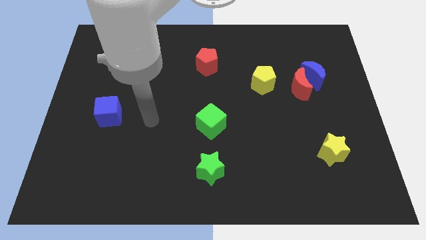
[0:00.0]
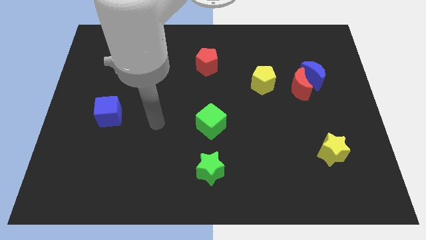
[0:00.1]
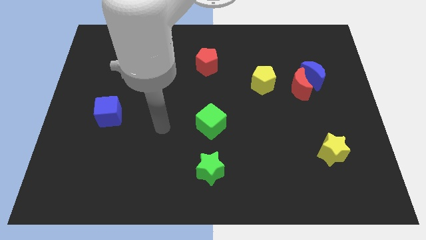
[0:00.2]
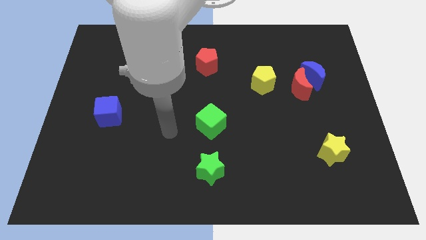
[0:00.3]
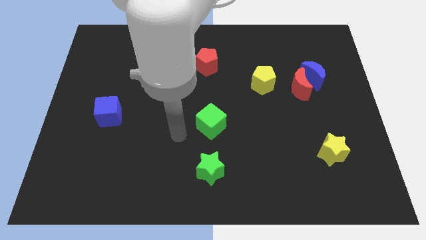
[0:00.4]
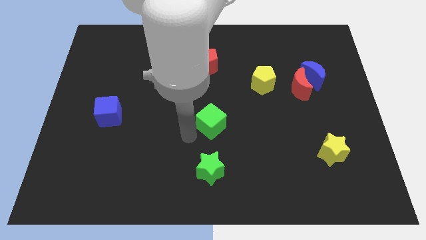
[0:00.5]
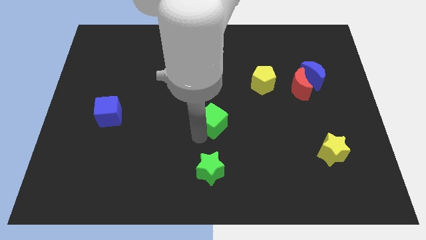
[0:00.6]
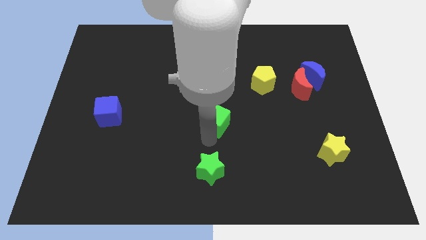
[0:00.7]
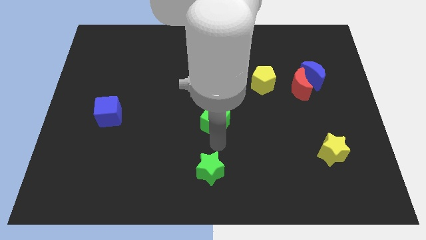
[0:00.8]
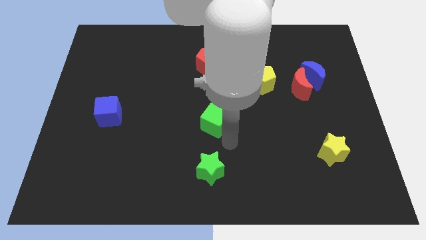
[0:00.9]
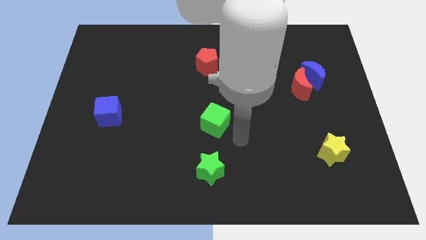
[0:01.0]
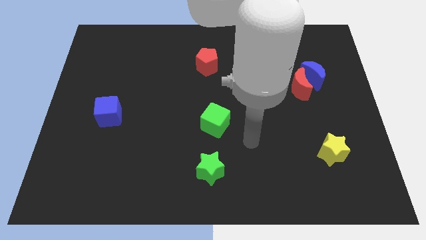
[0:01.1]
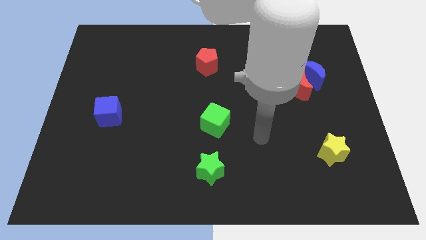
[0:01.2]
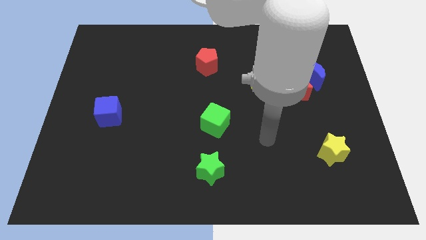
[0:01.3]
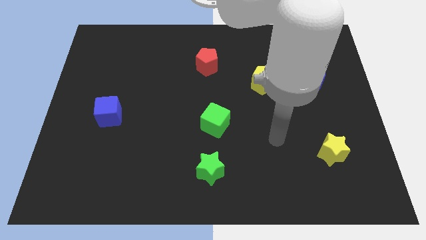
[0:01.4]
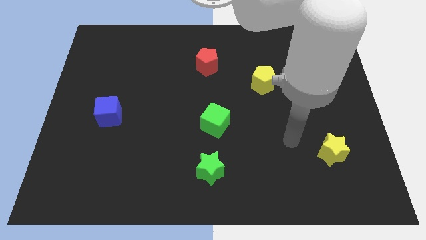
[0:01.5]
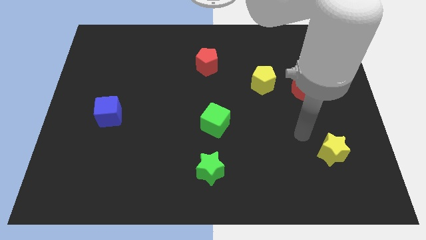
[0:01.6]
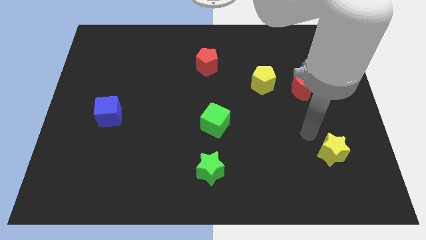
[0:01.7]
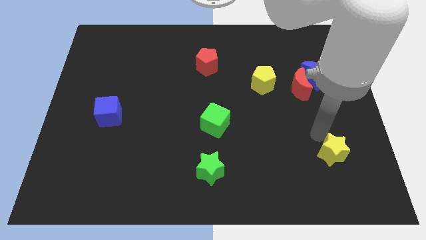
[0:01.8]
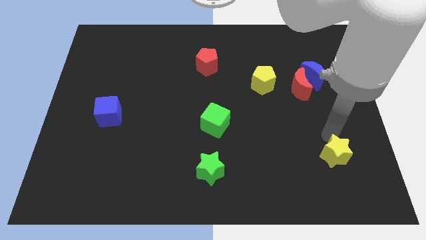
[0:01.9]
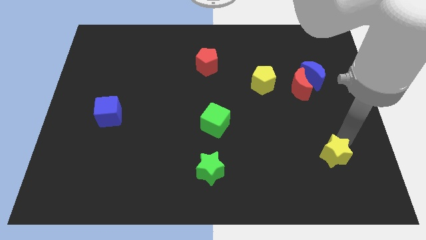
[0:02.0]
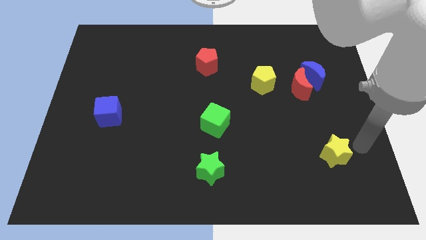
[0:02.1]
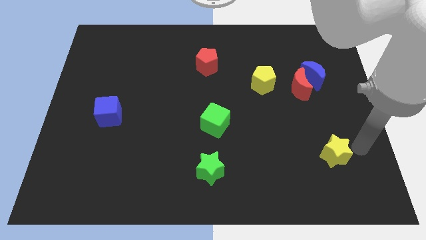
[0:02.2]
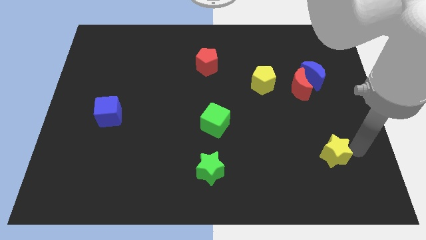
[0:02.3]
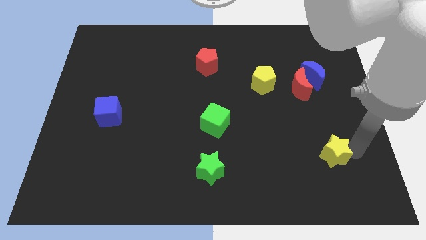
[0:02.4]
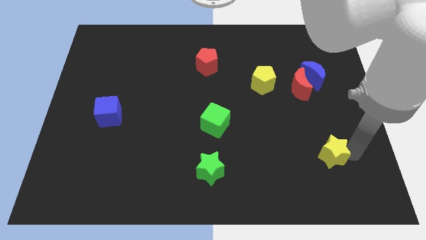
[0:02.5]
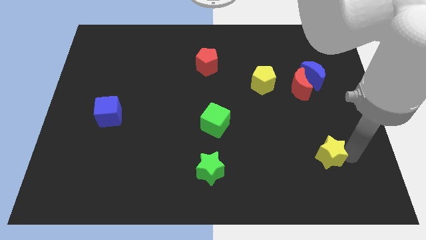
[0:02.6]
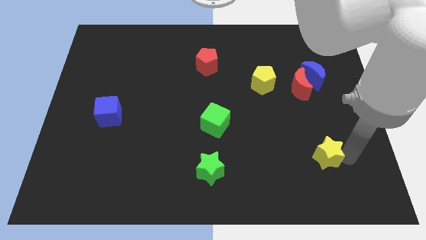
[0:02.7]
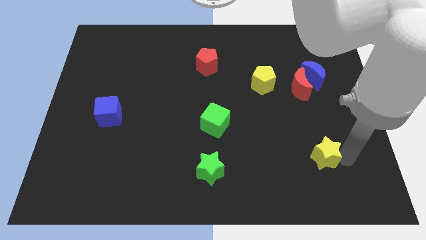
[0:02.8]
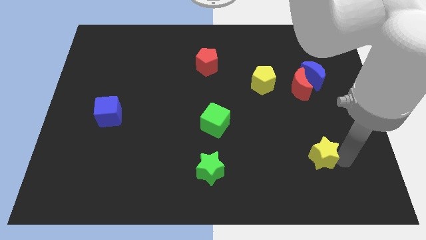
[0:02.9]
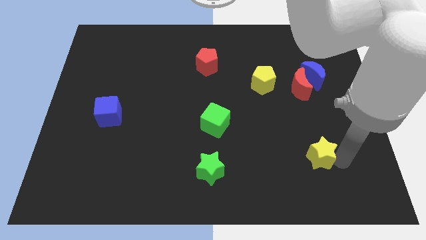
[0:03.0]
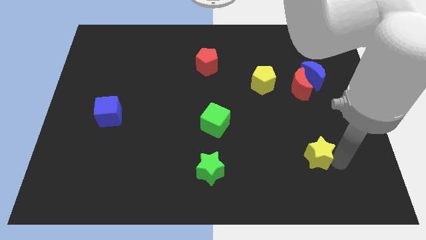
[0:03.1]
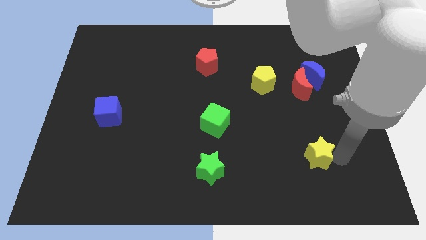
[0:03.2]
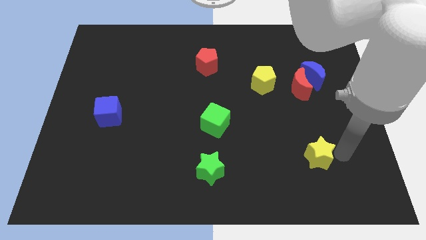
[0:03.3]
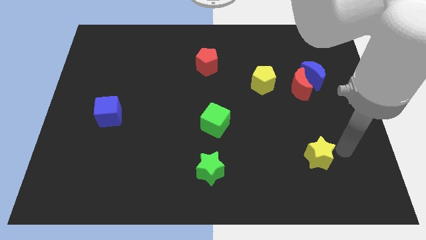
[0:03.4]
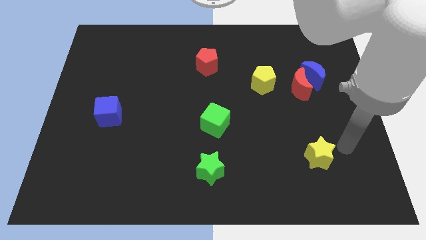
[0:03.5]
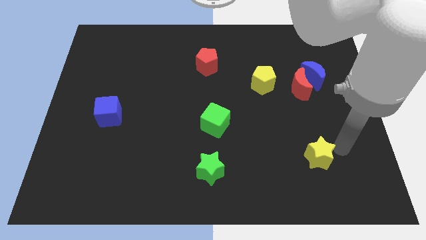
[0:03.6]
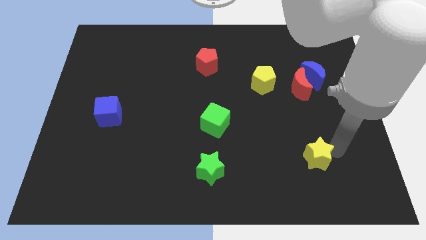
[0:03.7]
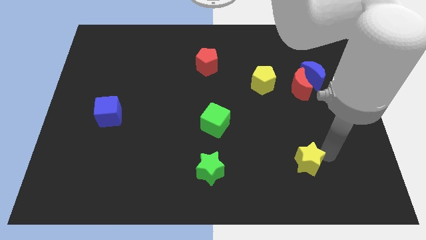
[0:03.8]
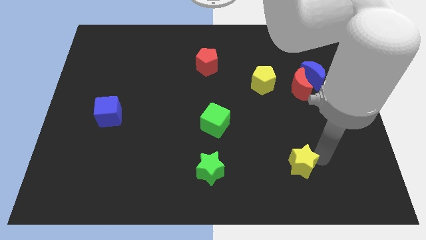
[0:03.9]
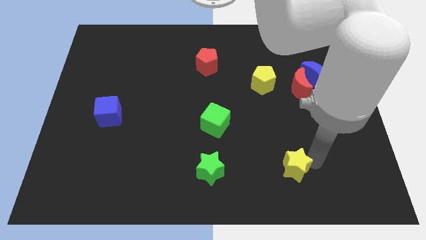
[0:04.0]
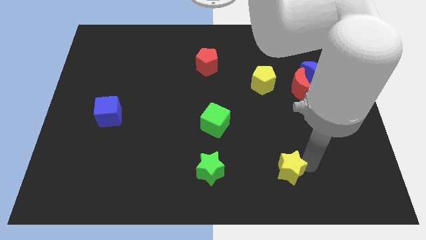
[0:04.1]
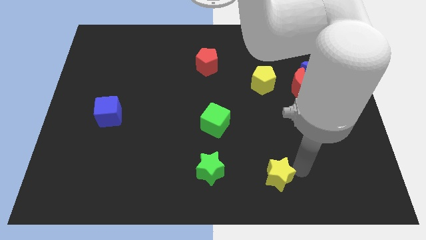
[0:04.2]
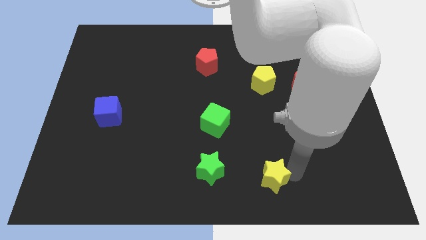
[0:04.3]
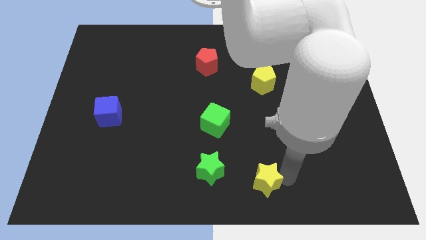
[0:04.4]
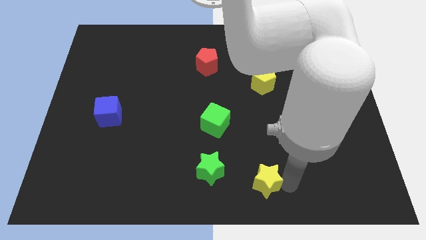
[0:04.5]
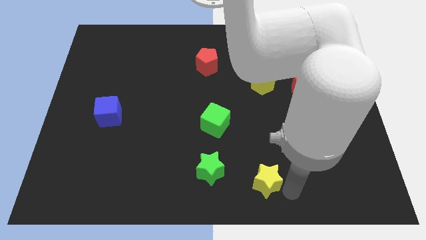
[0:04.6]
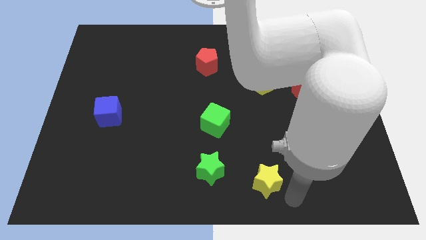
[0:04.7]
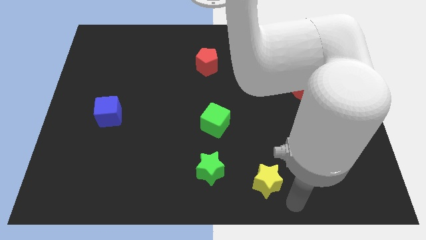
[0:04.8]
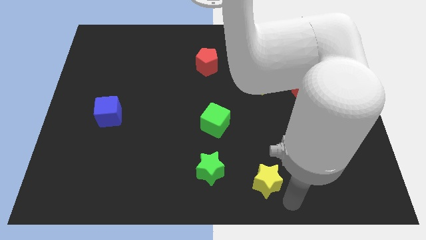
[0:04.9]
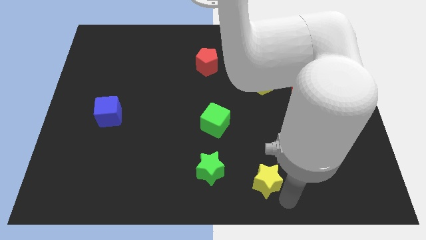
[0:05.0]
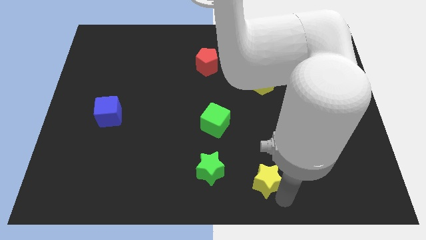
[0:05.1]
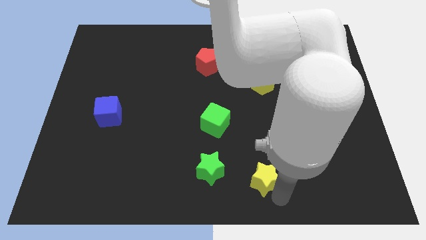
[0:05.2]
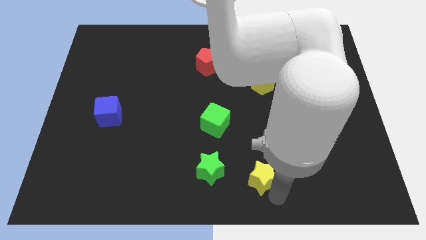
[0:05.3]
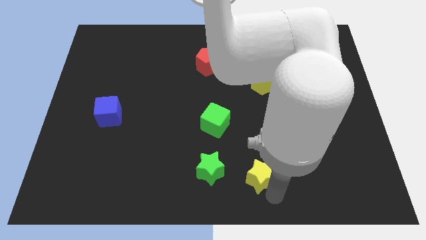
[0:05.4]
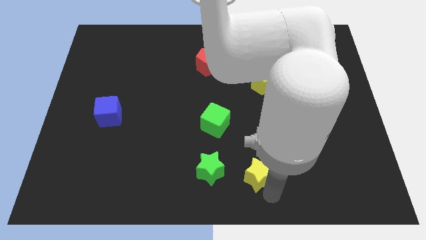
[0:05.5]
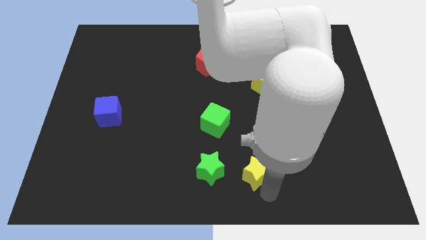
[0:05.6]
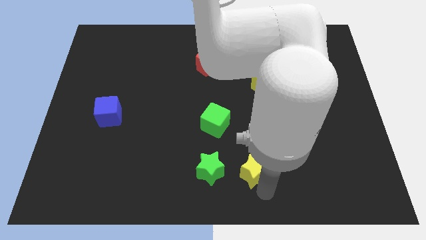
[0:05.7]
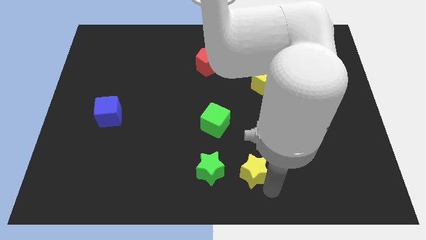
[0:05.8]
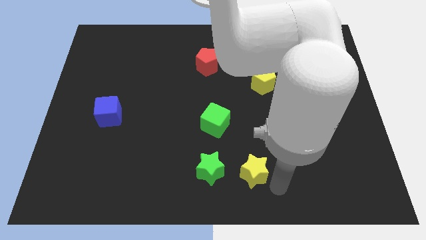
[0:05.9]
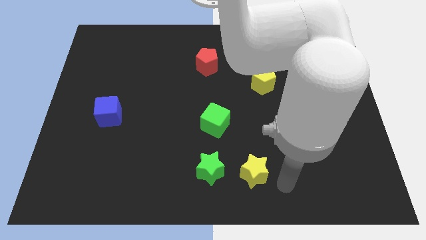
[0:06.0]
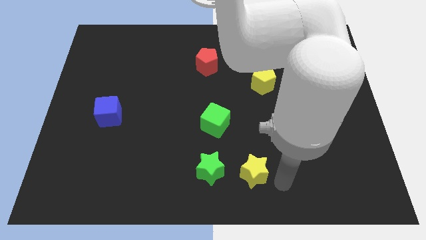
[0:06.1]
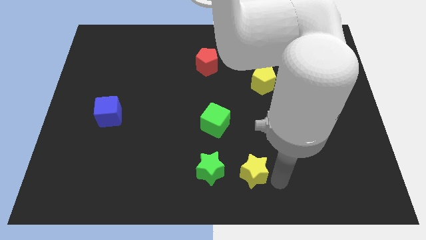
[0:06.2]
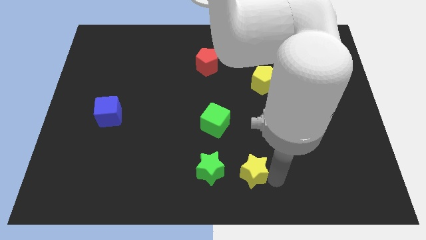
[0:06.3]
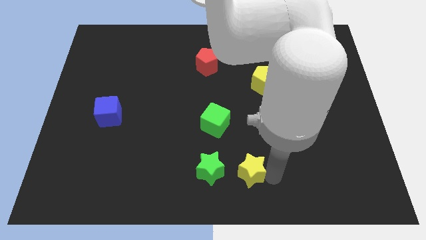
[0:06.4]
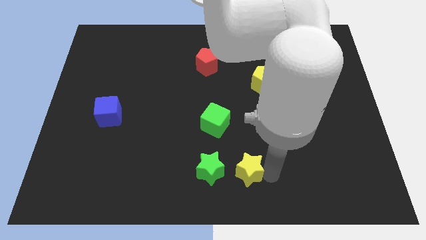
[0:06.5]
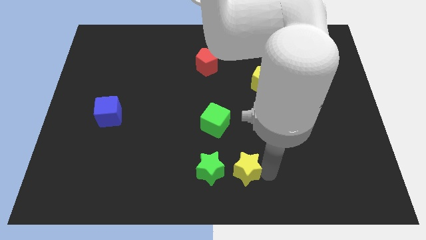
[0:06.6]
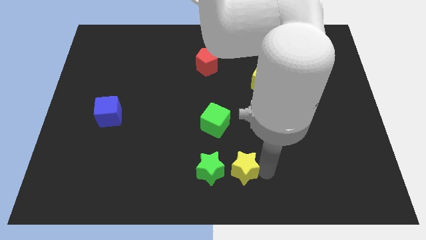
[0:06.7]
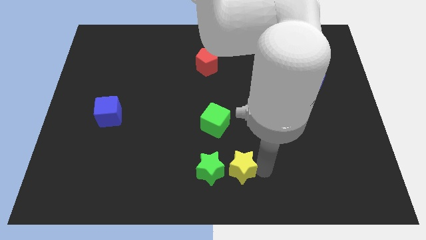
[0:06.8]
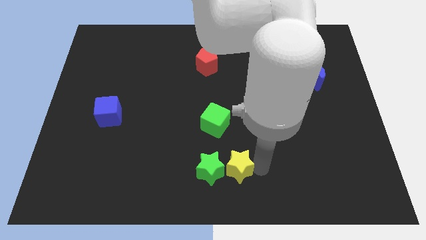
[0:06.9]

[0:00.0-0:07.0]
slide the yellow star towards the green star

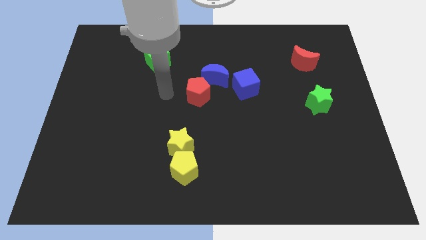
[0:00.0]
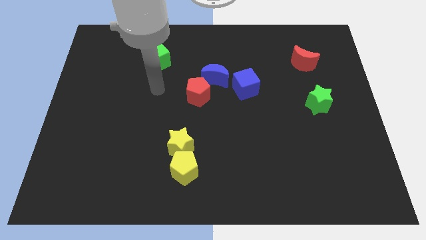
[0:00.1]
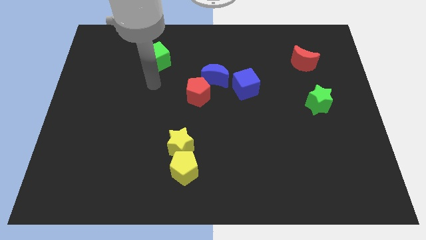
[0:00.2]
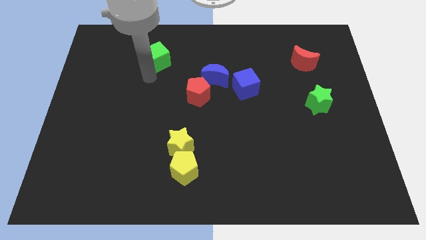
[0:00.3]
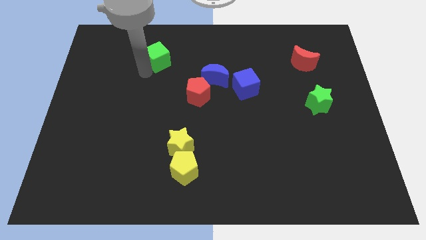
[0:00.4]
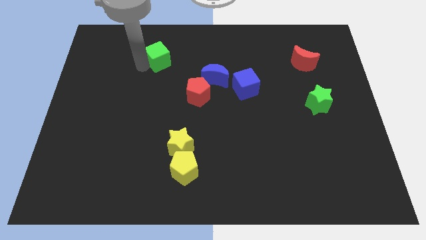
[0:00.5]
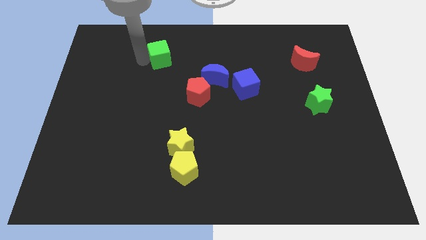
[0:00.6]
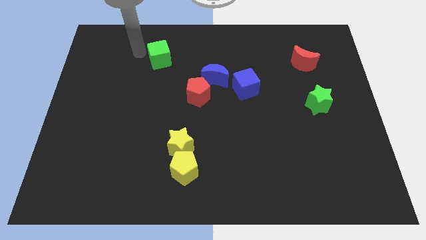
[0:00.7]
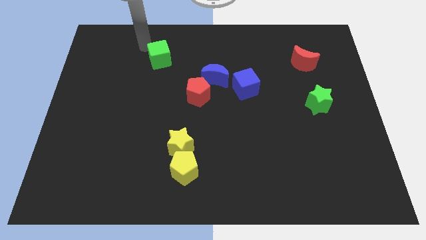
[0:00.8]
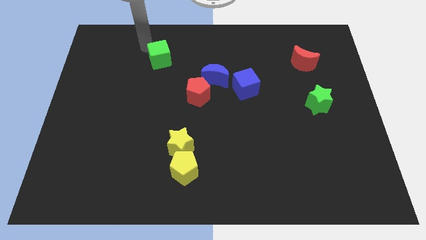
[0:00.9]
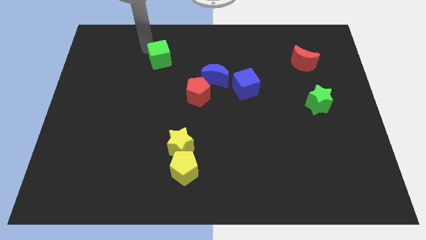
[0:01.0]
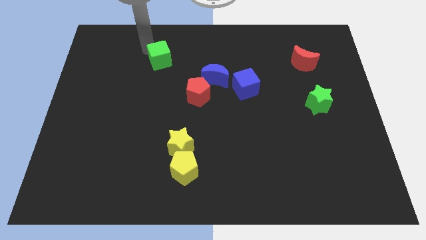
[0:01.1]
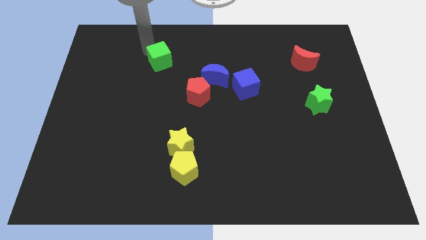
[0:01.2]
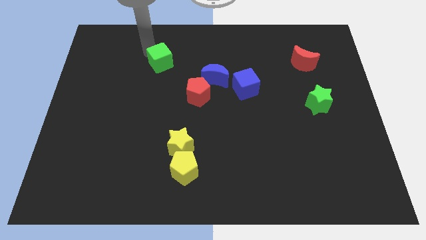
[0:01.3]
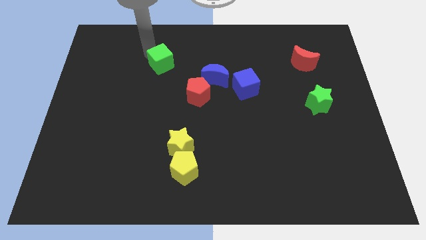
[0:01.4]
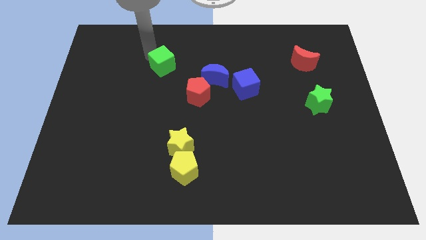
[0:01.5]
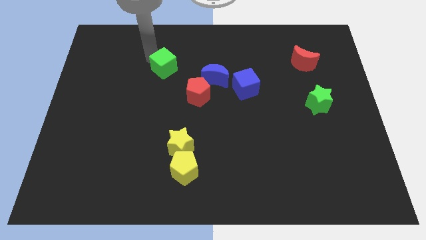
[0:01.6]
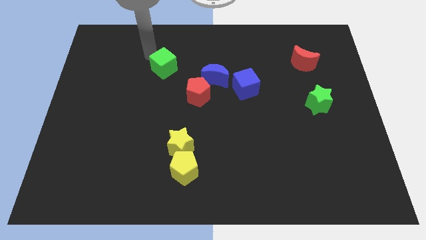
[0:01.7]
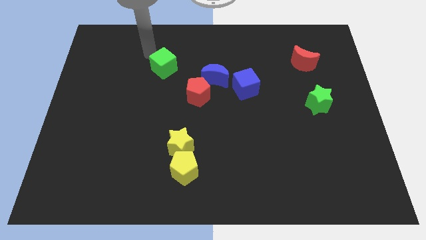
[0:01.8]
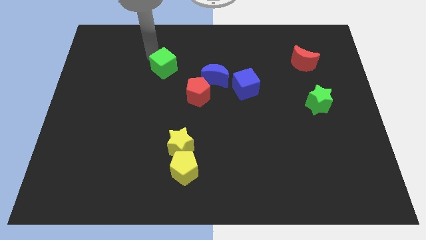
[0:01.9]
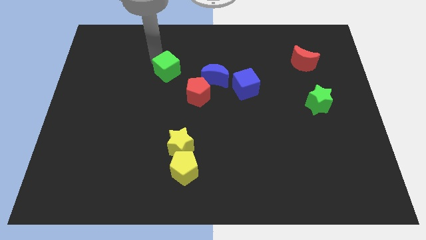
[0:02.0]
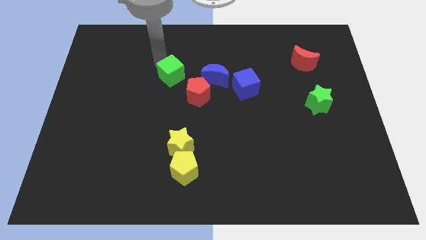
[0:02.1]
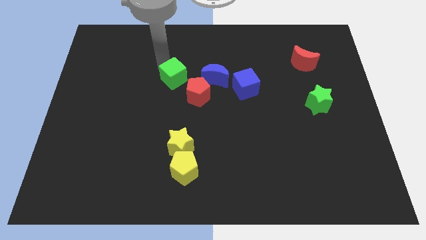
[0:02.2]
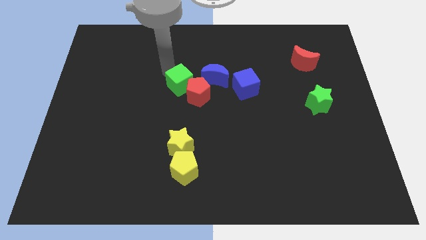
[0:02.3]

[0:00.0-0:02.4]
move the green cube to the red pentagon
